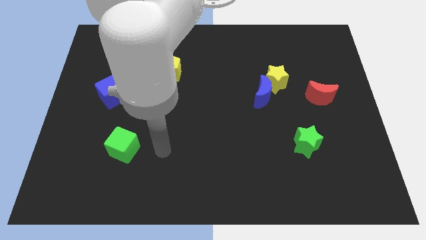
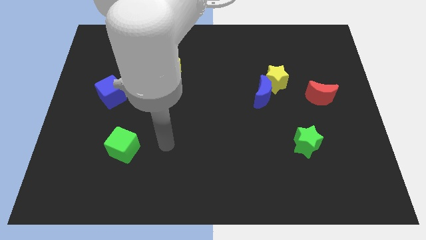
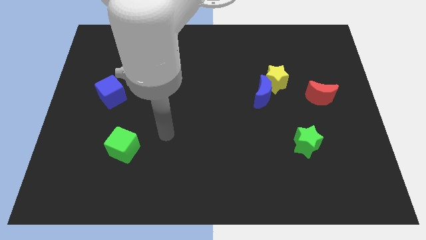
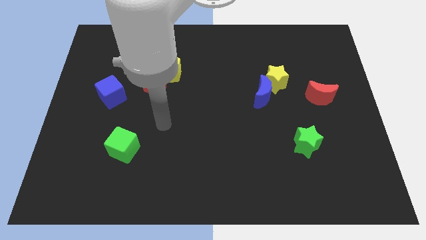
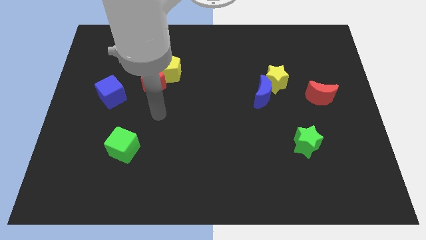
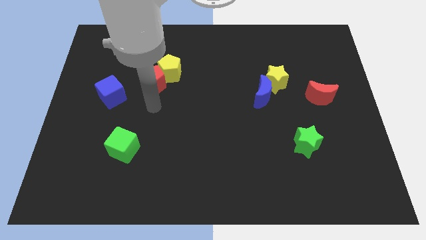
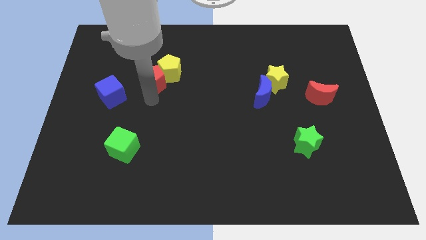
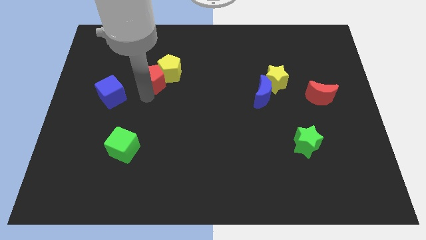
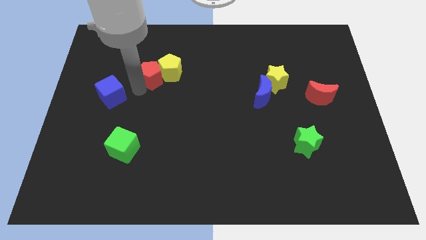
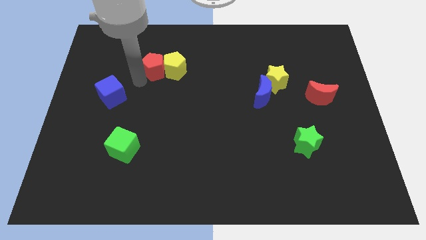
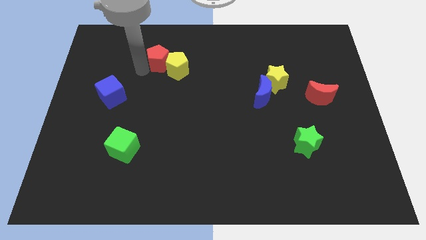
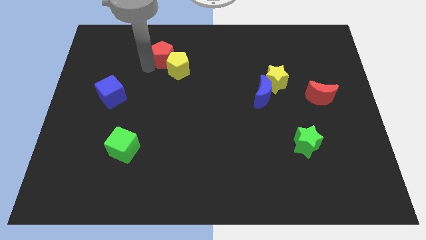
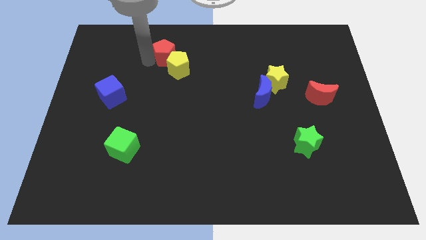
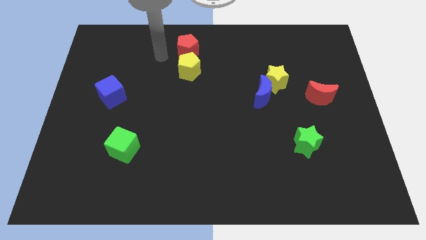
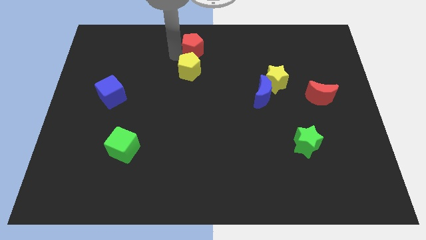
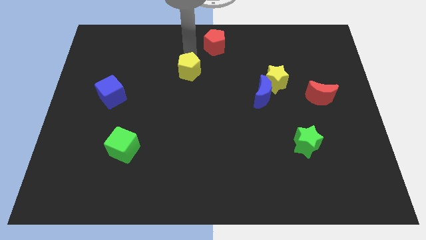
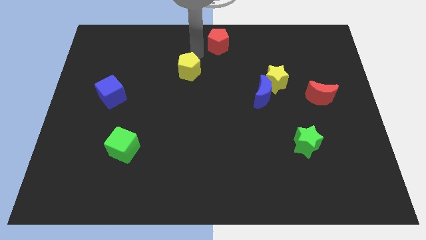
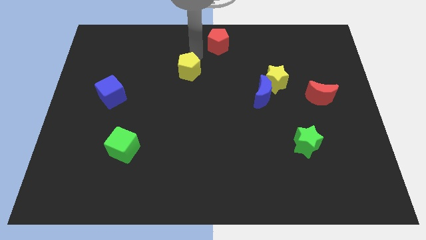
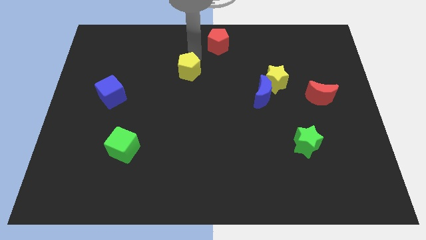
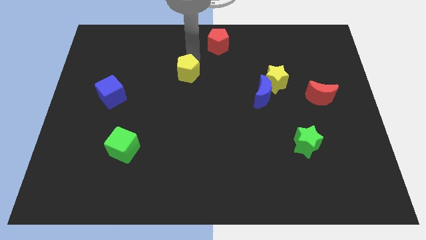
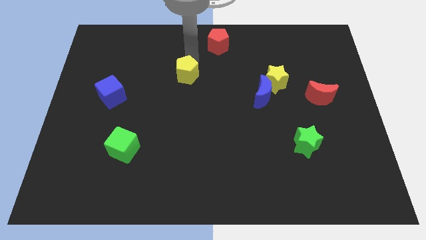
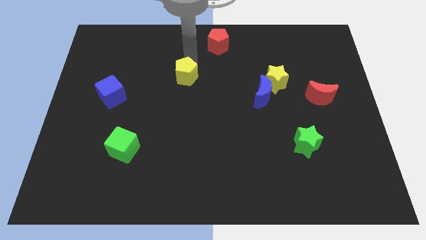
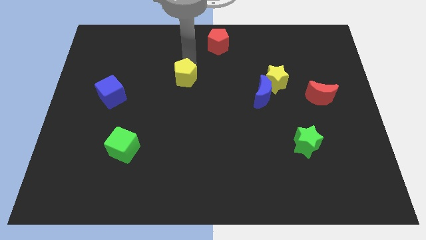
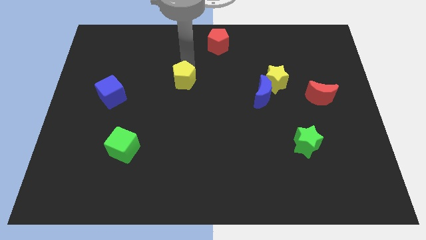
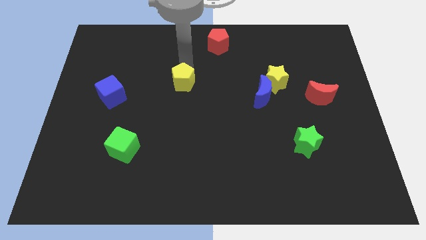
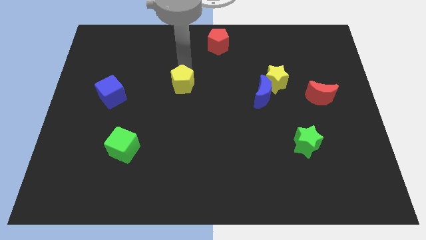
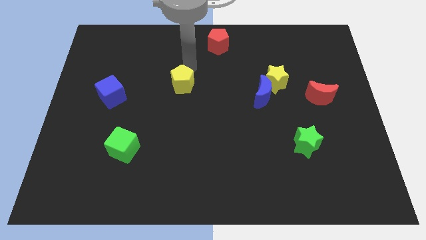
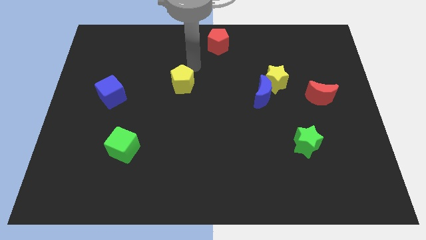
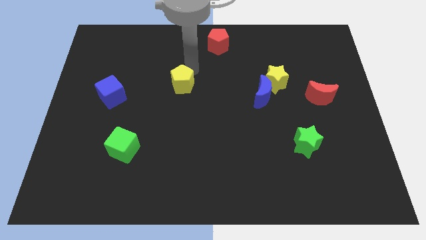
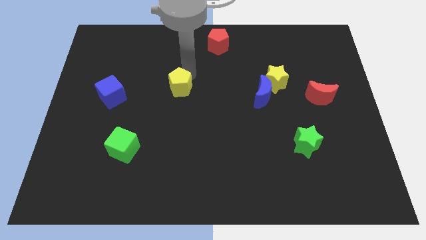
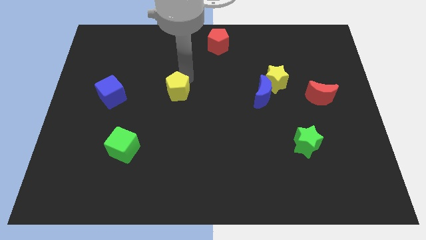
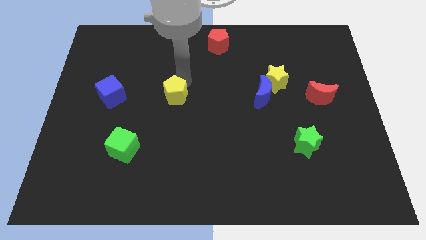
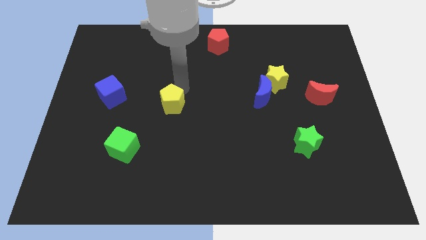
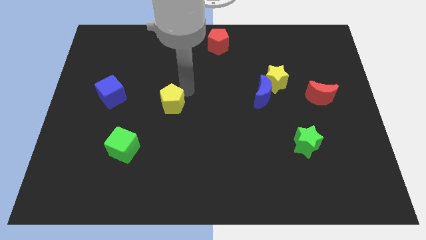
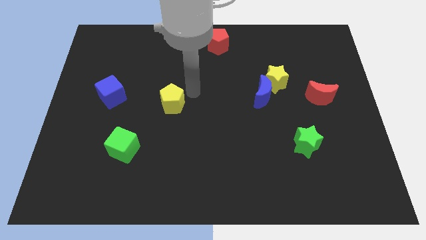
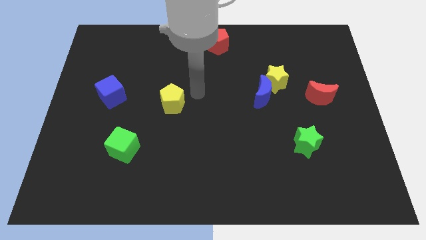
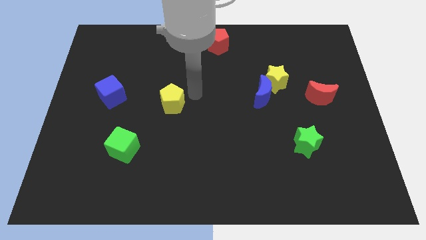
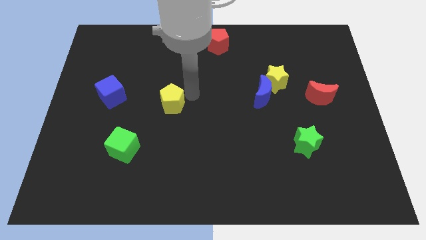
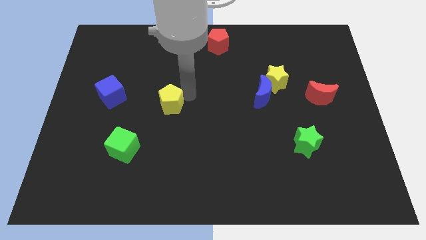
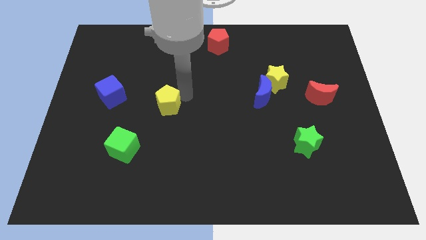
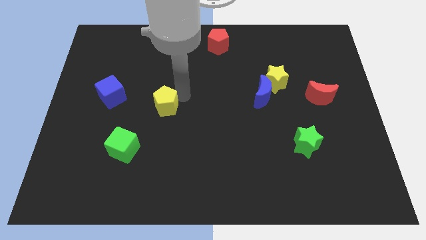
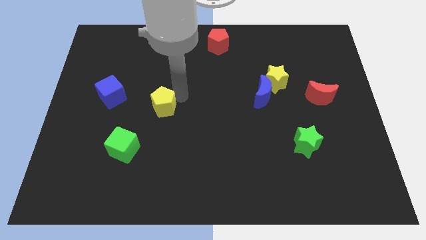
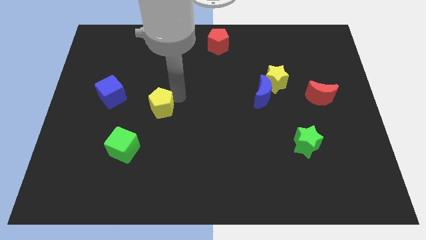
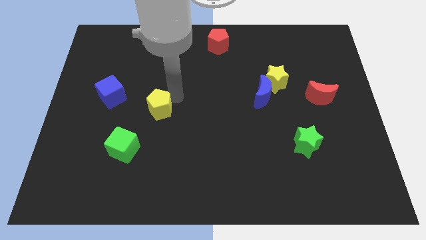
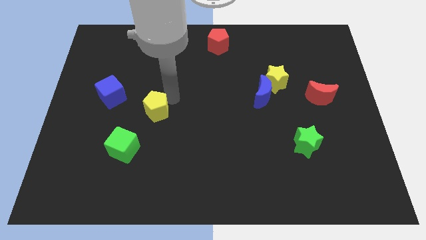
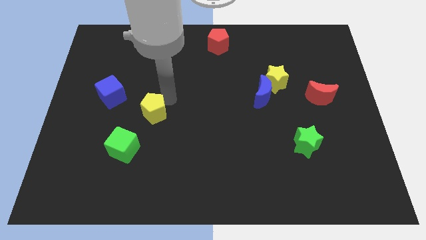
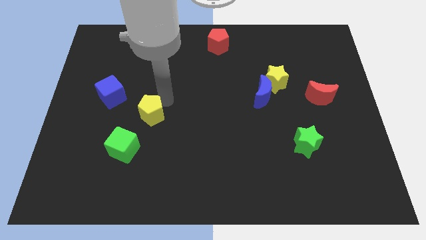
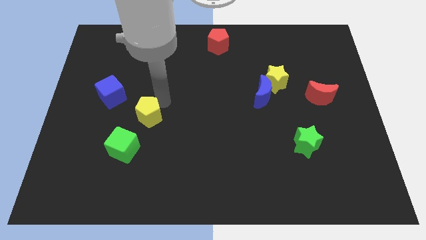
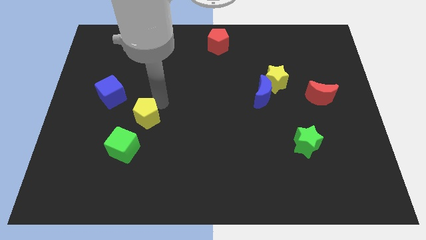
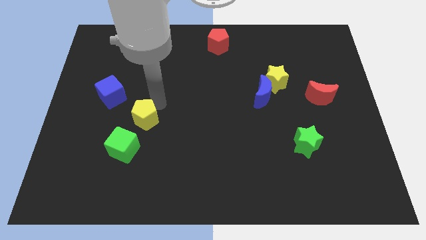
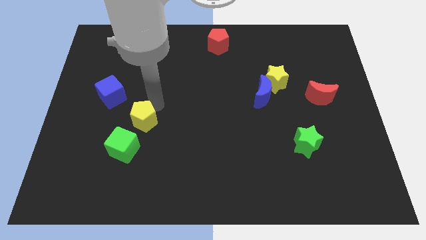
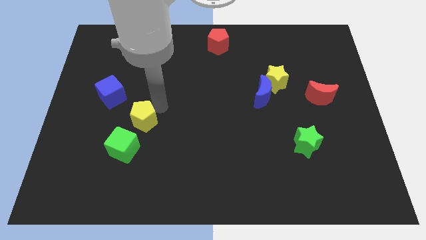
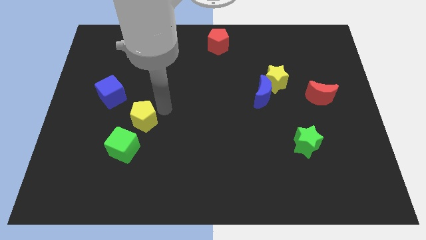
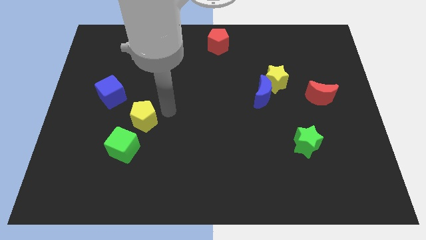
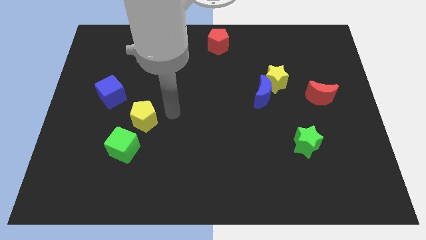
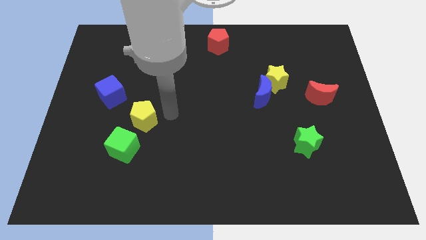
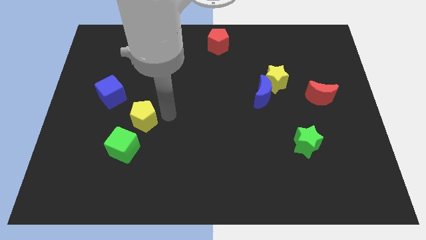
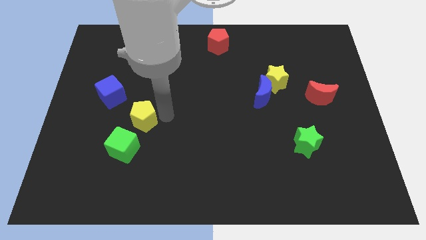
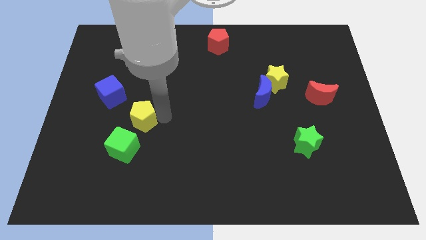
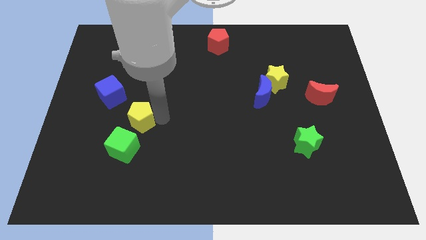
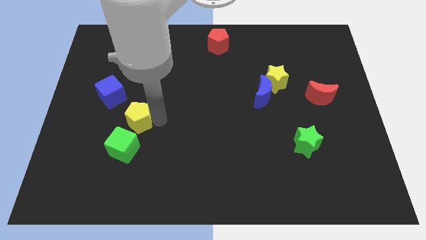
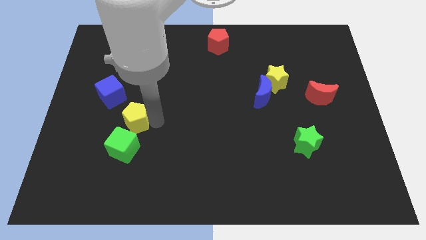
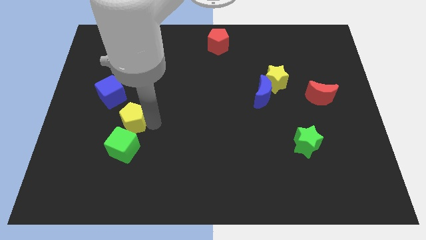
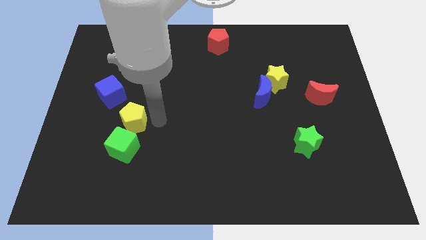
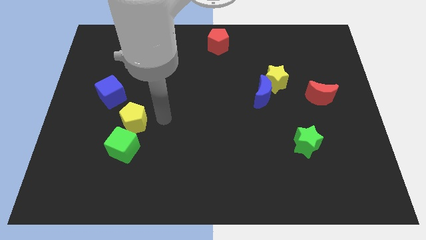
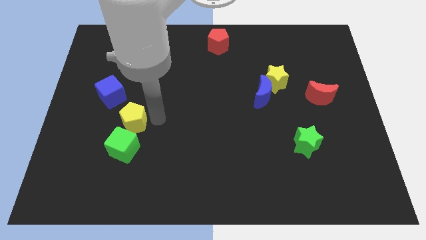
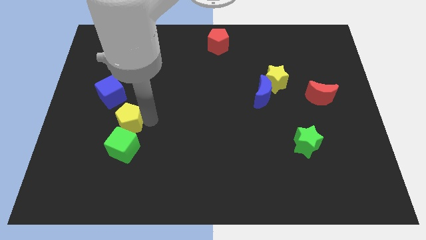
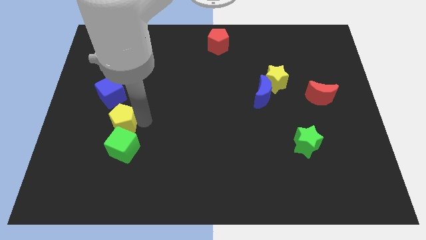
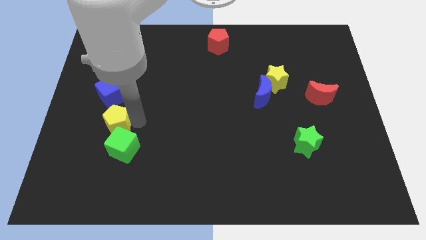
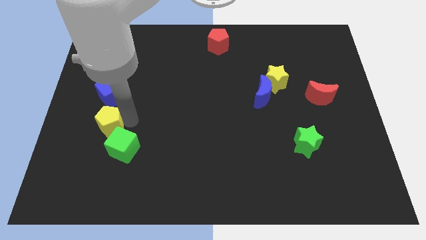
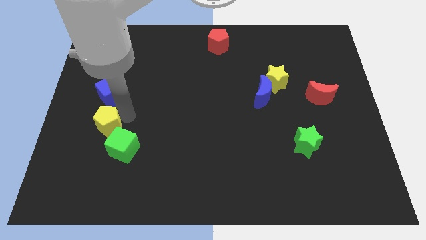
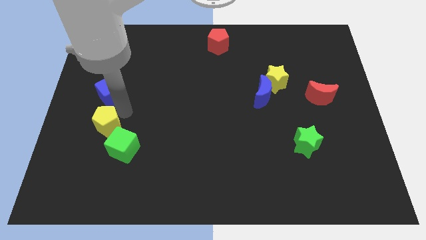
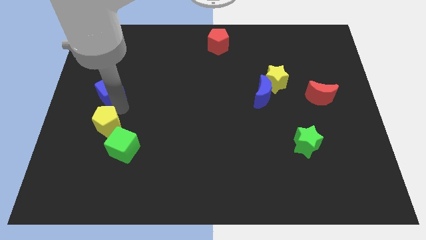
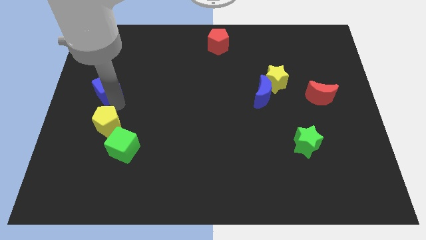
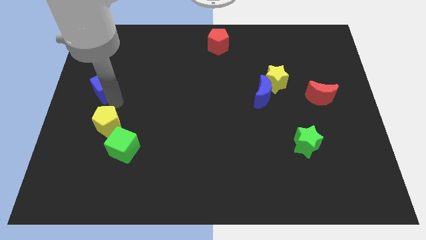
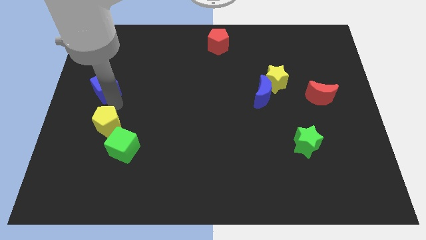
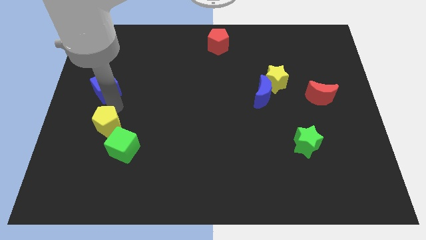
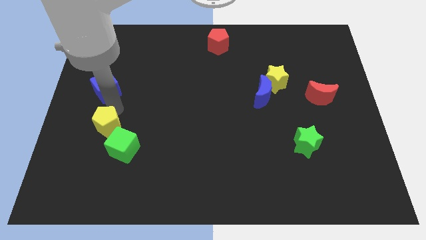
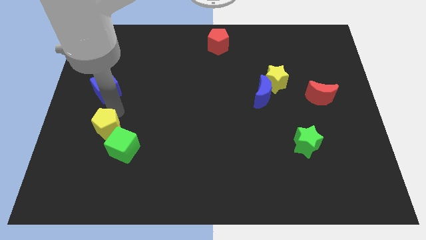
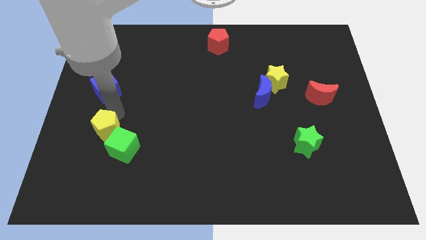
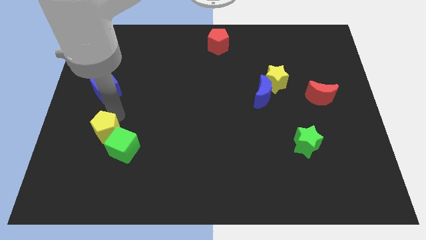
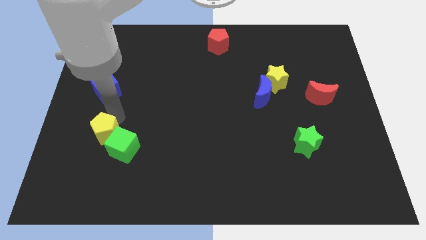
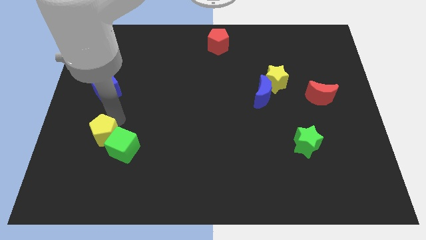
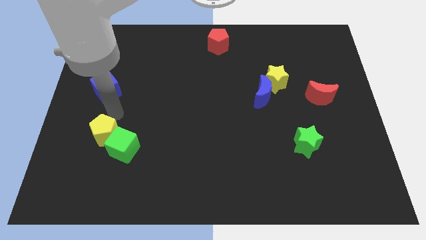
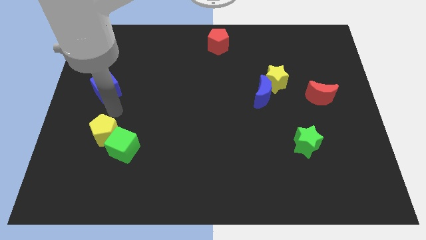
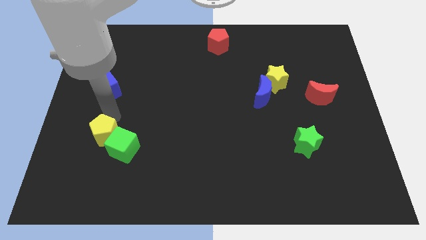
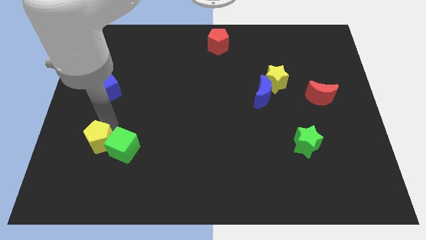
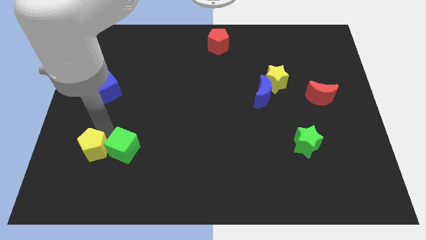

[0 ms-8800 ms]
push the yellow pentagon to the bottom left of the green cube
